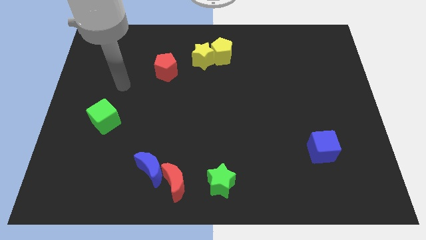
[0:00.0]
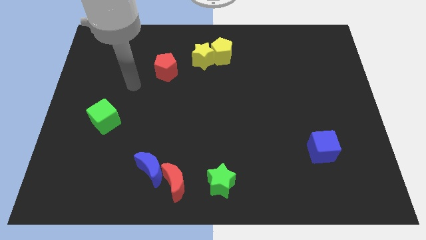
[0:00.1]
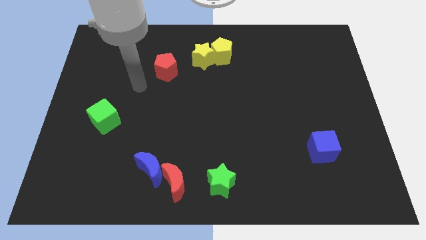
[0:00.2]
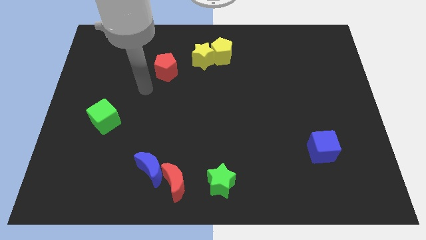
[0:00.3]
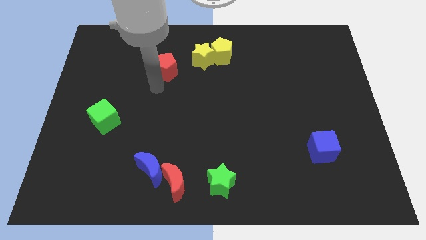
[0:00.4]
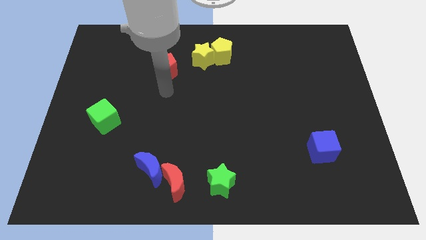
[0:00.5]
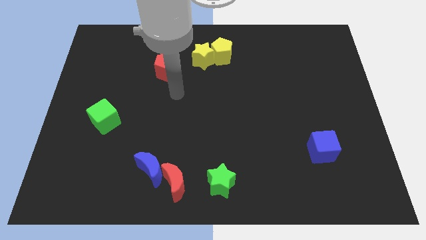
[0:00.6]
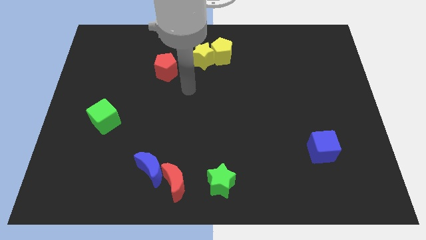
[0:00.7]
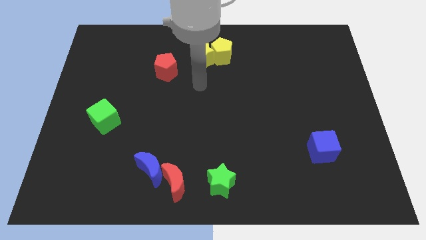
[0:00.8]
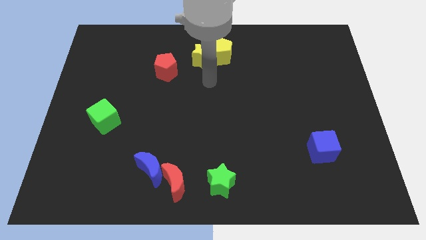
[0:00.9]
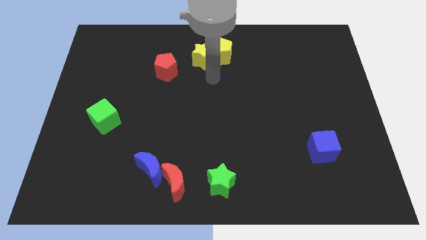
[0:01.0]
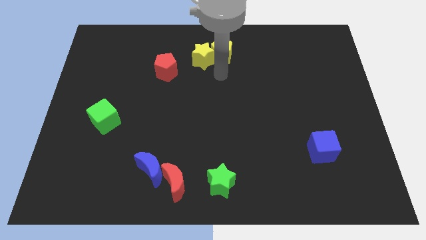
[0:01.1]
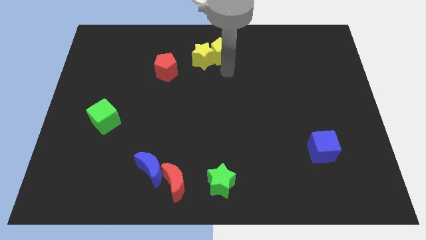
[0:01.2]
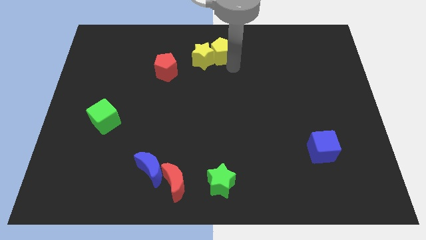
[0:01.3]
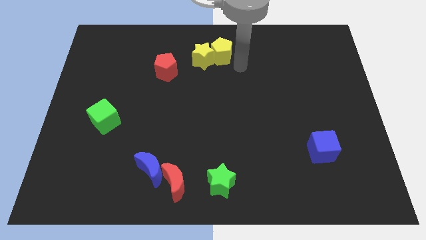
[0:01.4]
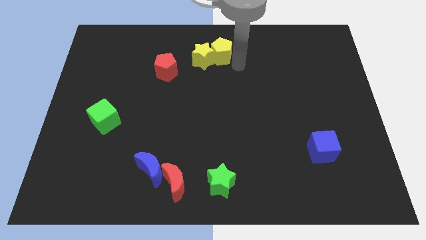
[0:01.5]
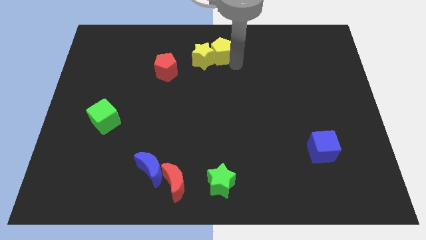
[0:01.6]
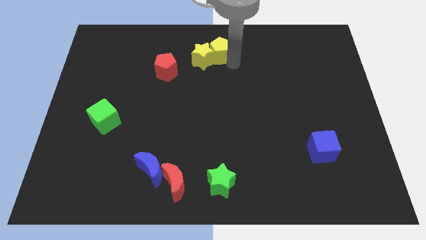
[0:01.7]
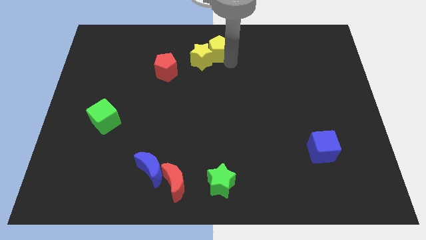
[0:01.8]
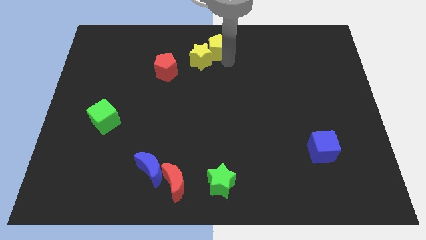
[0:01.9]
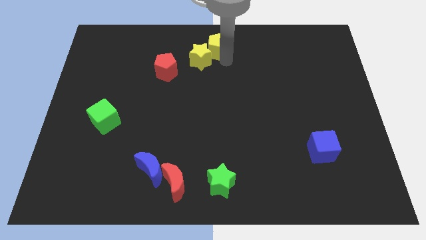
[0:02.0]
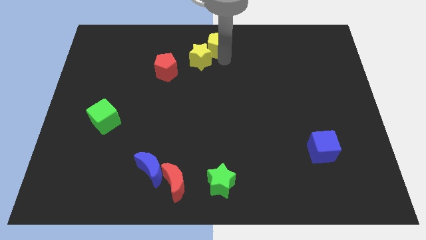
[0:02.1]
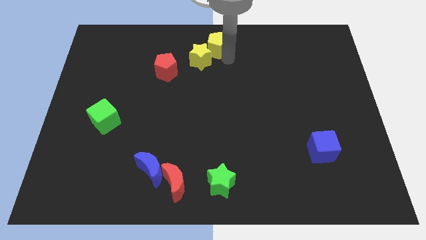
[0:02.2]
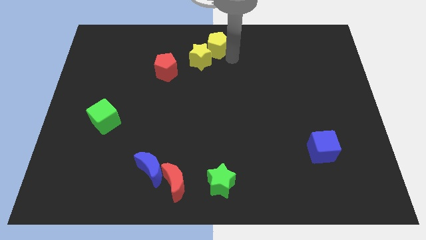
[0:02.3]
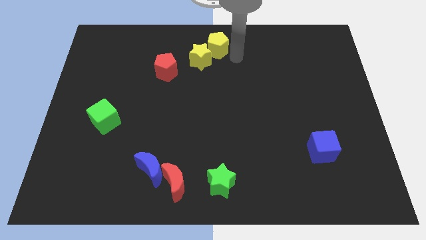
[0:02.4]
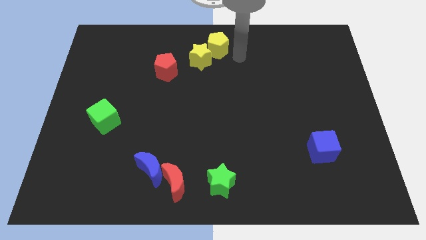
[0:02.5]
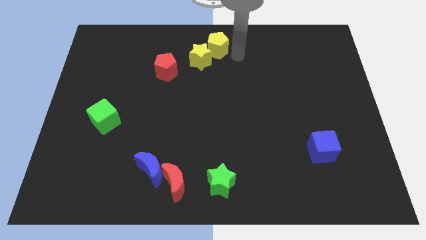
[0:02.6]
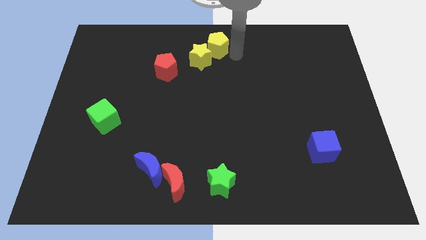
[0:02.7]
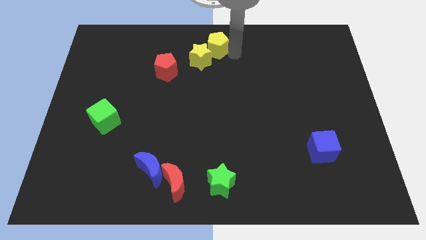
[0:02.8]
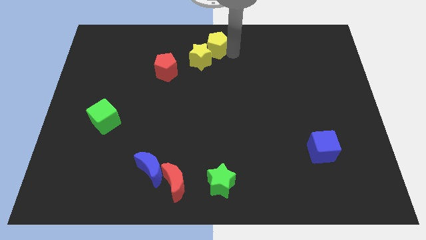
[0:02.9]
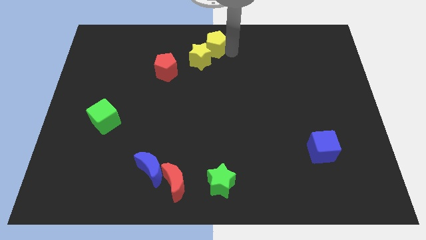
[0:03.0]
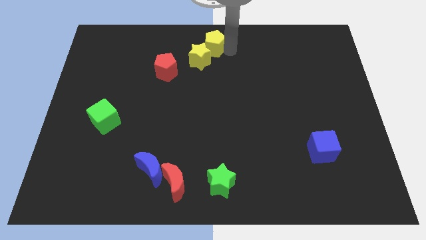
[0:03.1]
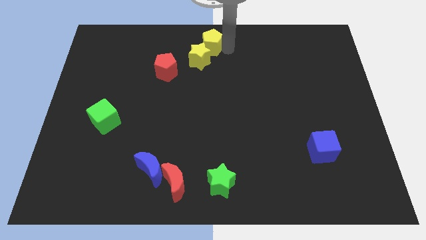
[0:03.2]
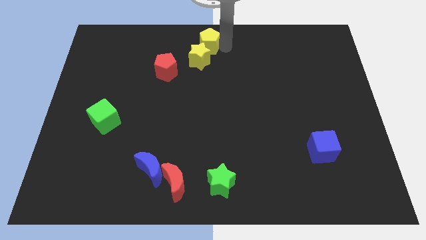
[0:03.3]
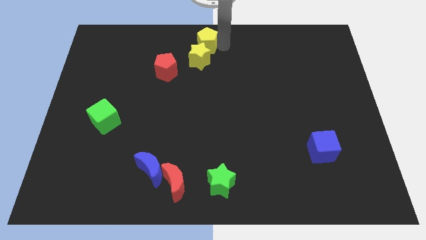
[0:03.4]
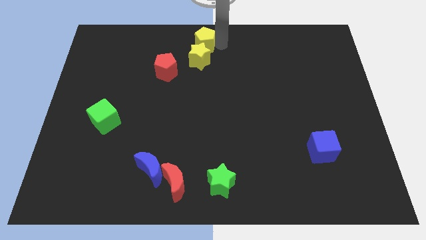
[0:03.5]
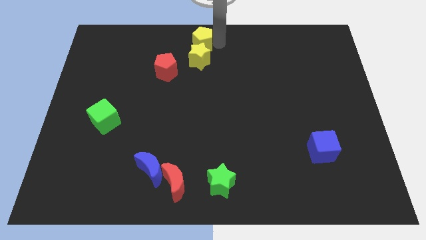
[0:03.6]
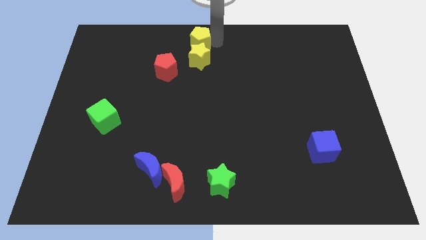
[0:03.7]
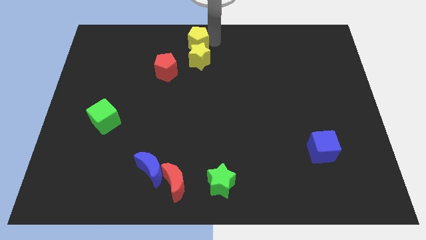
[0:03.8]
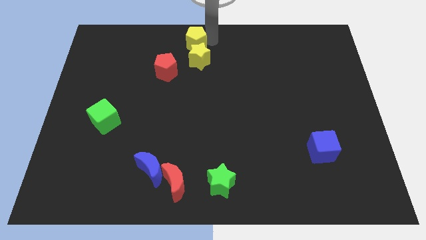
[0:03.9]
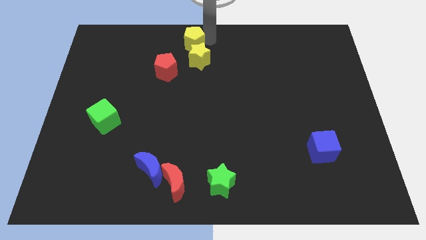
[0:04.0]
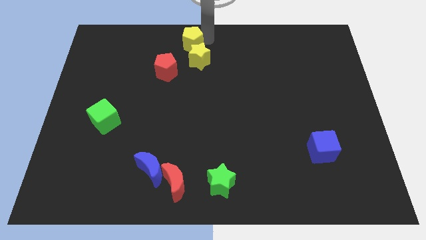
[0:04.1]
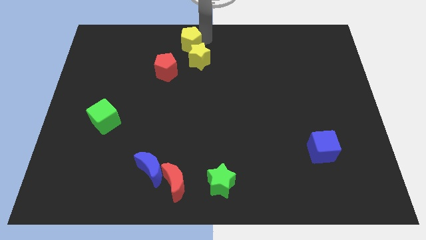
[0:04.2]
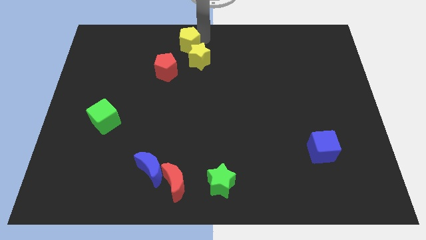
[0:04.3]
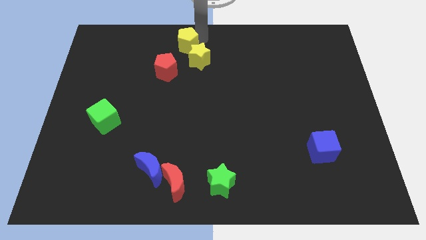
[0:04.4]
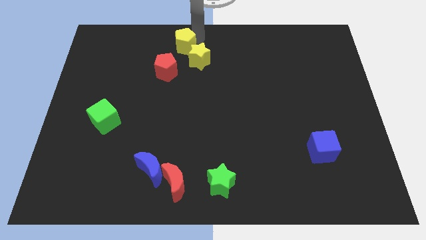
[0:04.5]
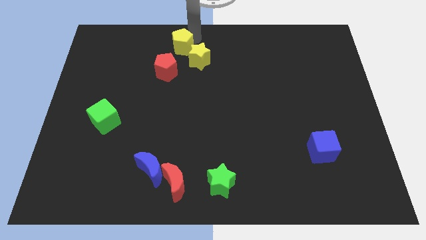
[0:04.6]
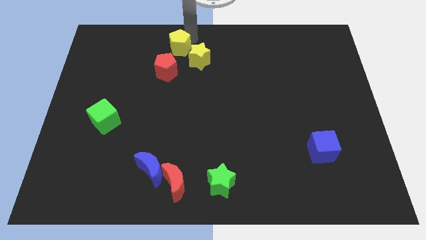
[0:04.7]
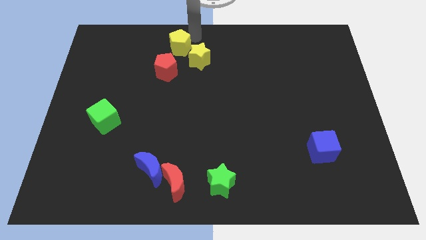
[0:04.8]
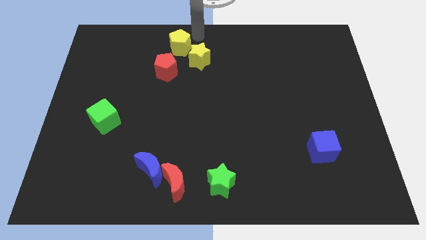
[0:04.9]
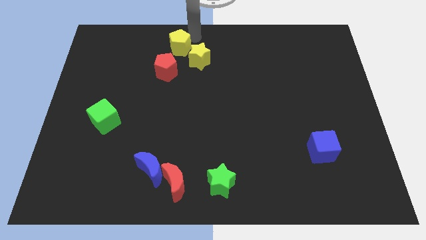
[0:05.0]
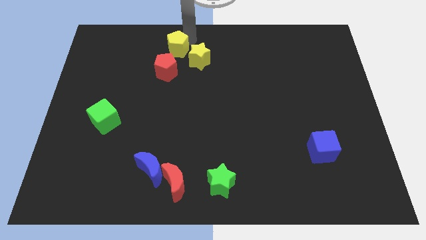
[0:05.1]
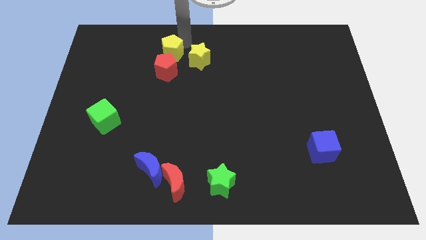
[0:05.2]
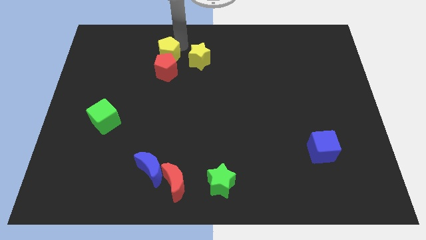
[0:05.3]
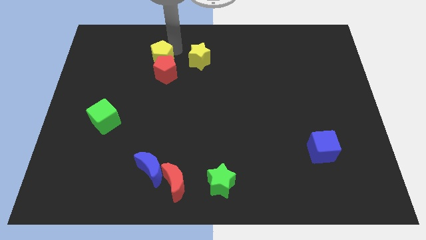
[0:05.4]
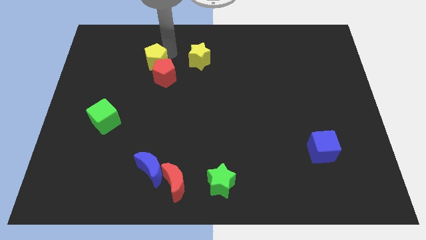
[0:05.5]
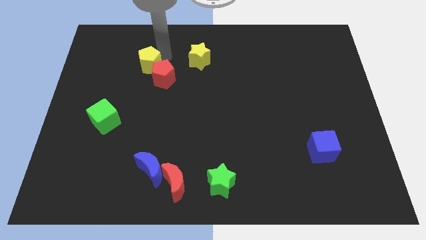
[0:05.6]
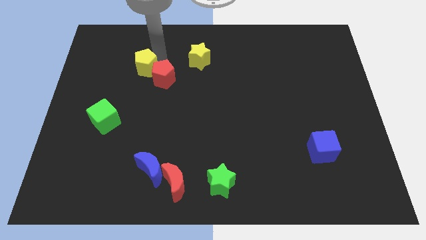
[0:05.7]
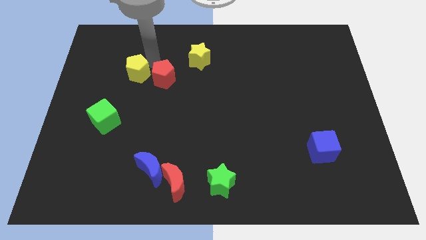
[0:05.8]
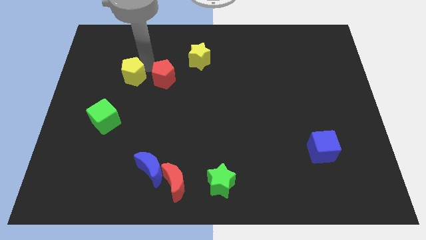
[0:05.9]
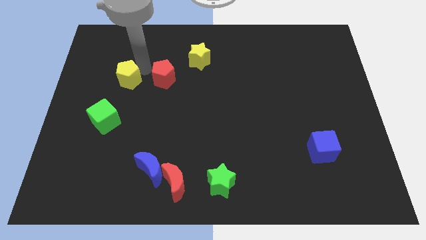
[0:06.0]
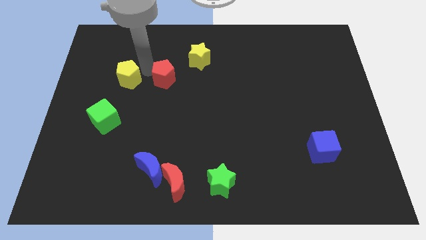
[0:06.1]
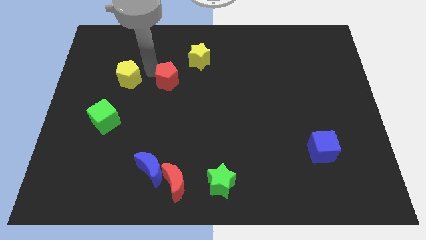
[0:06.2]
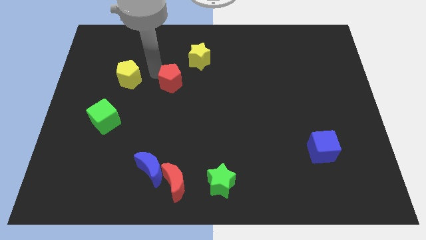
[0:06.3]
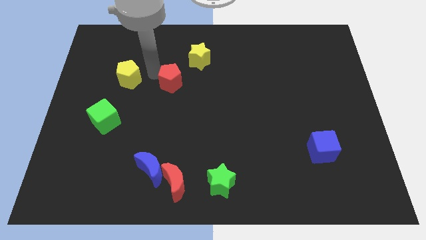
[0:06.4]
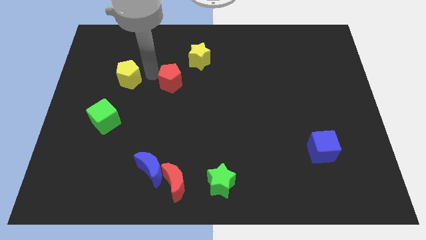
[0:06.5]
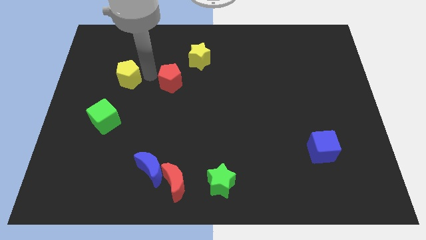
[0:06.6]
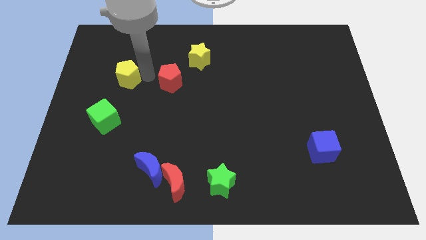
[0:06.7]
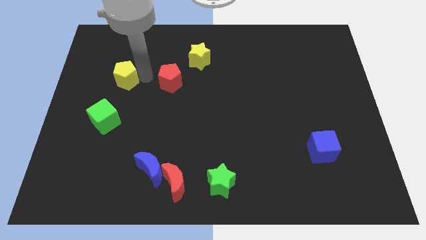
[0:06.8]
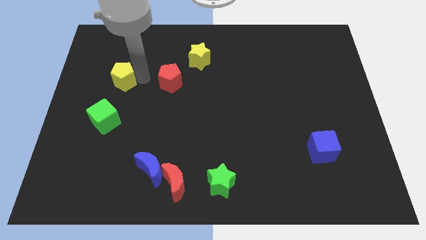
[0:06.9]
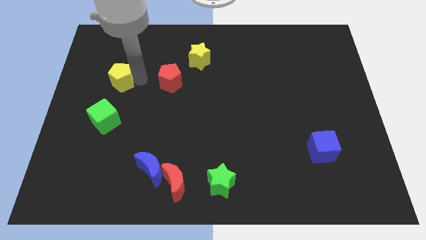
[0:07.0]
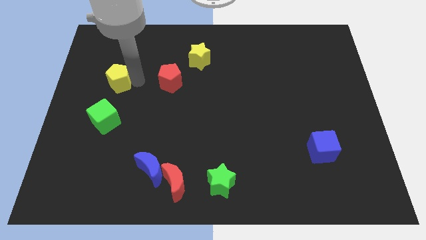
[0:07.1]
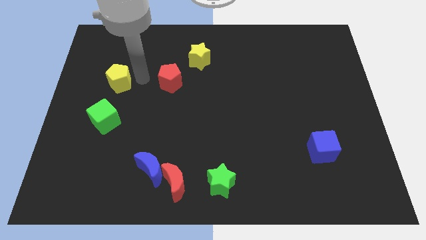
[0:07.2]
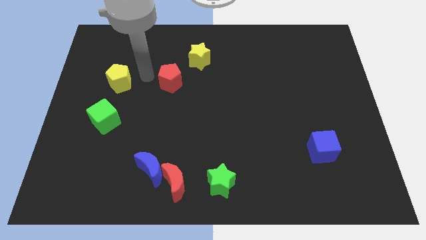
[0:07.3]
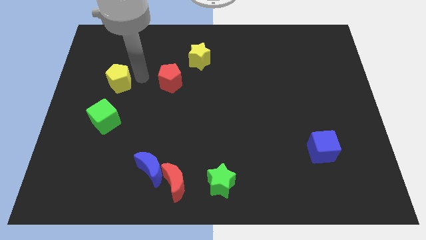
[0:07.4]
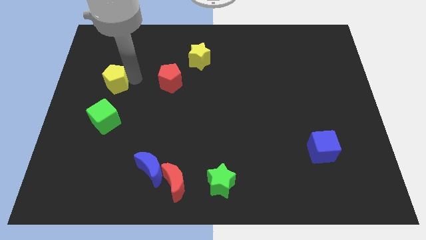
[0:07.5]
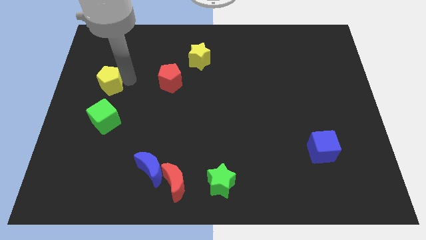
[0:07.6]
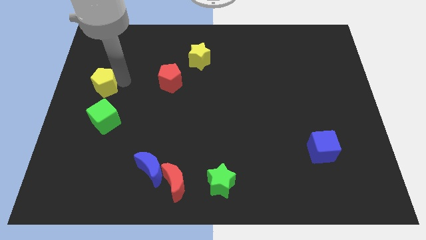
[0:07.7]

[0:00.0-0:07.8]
move the yellow pentagon to the left side
